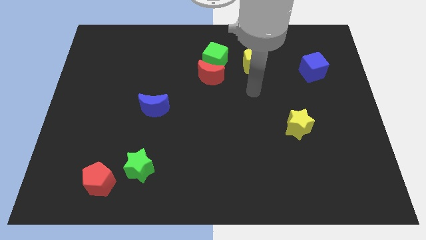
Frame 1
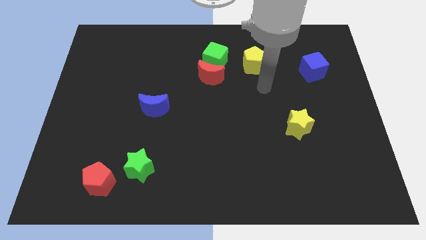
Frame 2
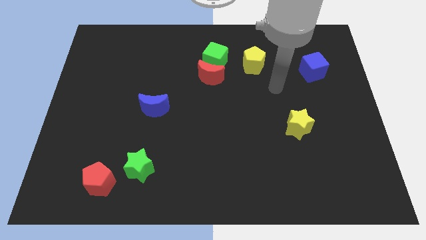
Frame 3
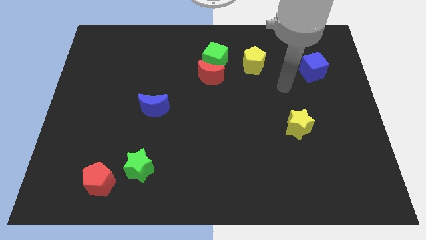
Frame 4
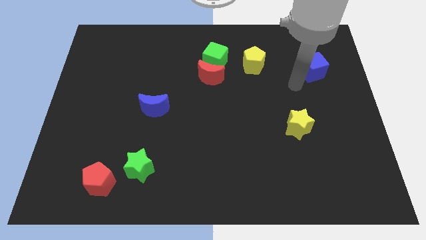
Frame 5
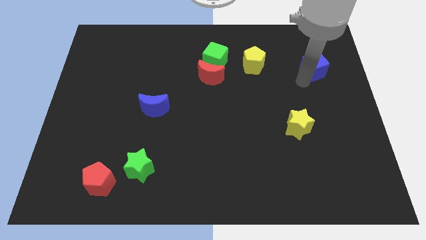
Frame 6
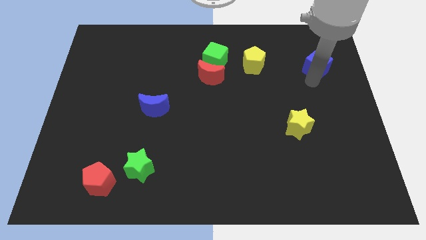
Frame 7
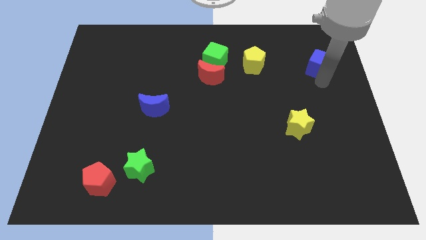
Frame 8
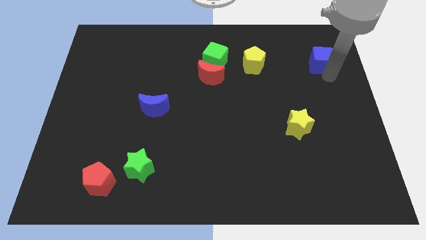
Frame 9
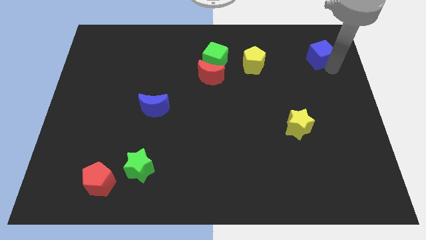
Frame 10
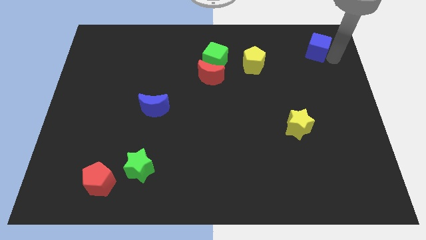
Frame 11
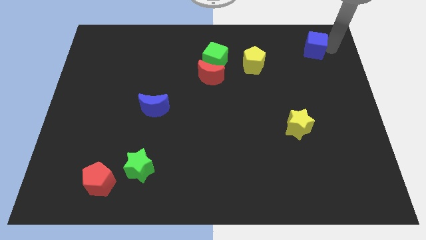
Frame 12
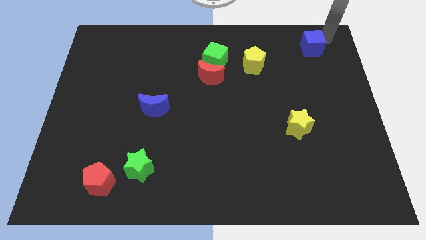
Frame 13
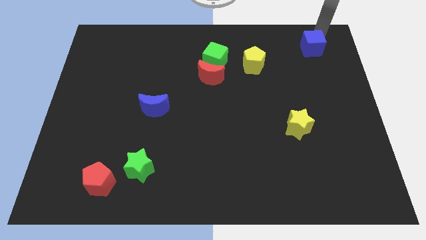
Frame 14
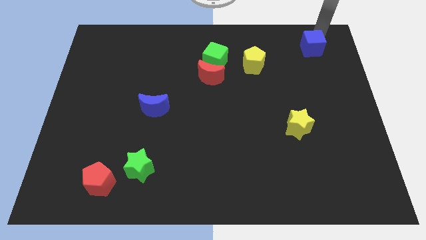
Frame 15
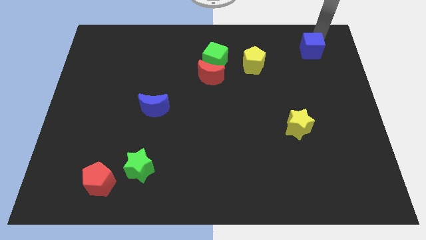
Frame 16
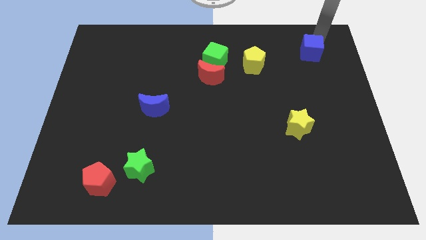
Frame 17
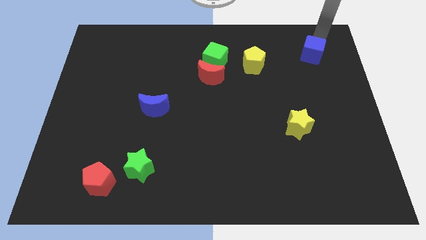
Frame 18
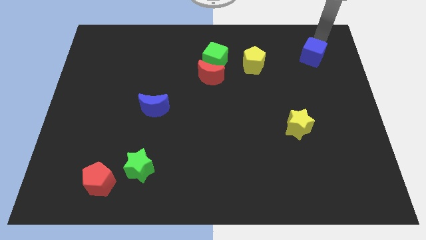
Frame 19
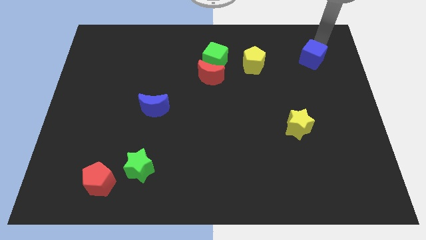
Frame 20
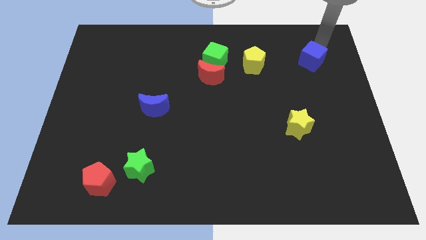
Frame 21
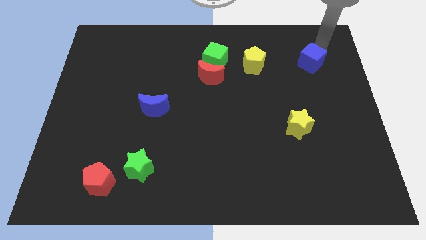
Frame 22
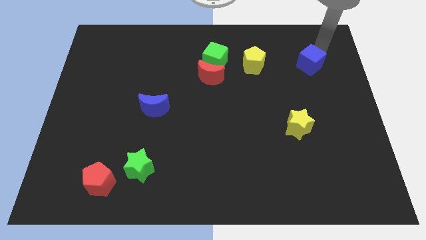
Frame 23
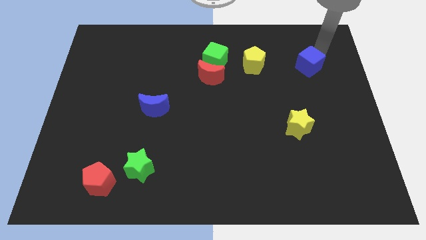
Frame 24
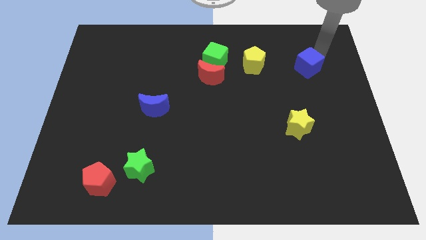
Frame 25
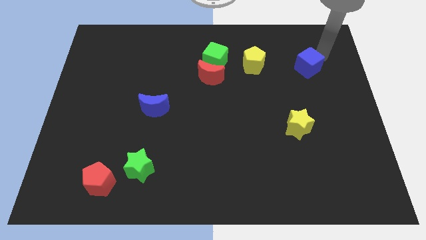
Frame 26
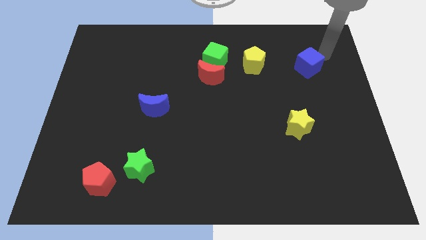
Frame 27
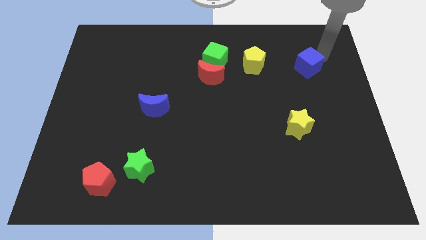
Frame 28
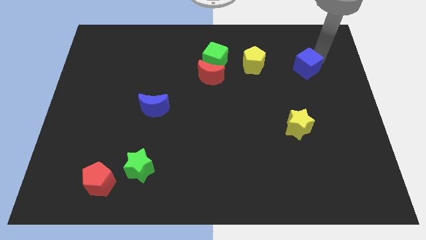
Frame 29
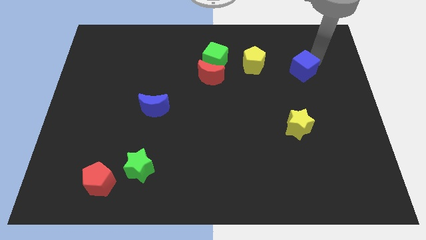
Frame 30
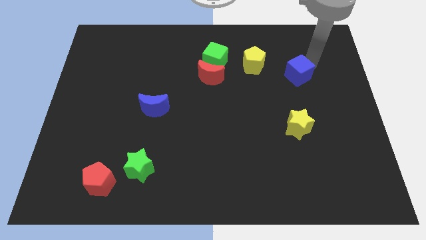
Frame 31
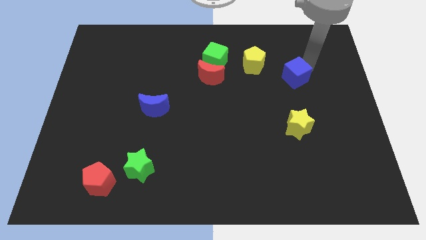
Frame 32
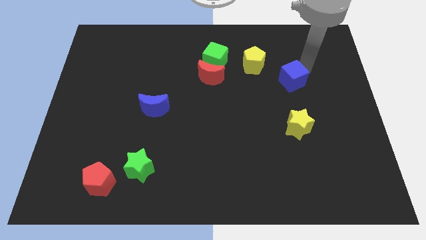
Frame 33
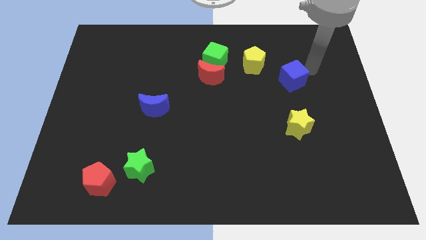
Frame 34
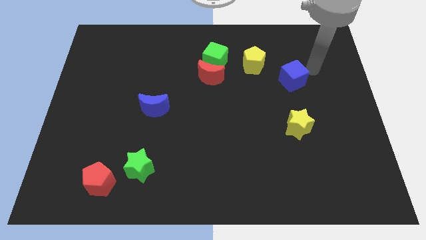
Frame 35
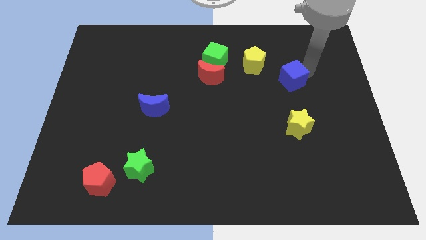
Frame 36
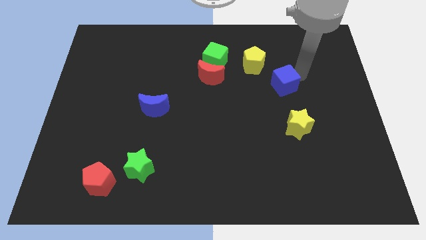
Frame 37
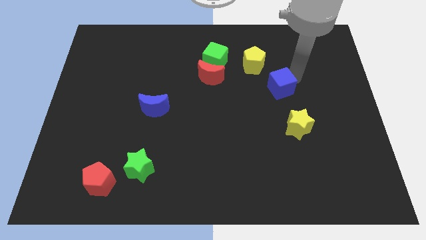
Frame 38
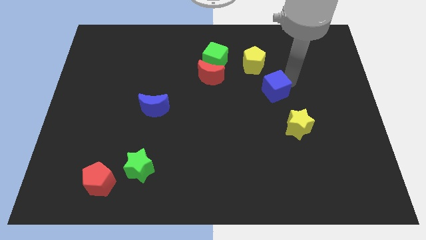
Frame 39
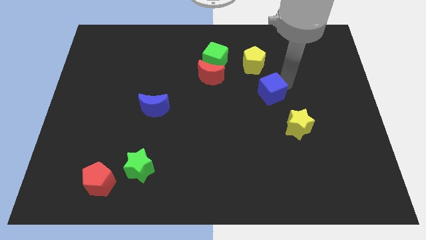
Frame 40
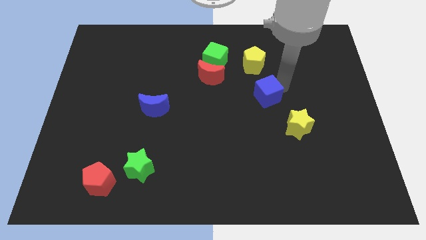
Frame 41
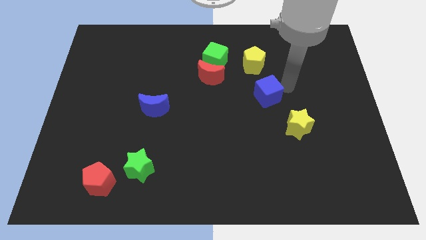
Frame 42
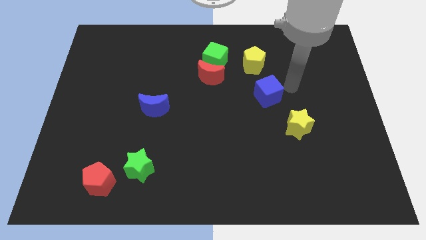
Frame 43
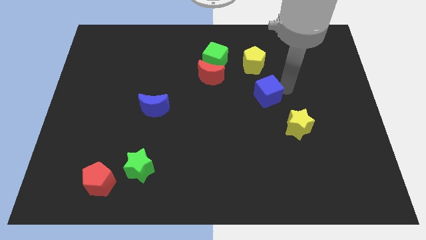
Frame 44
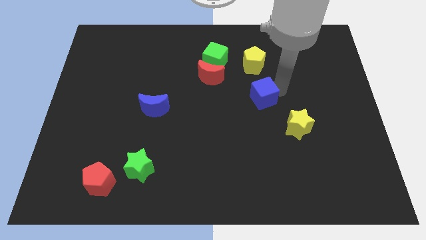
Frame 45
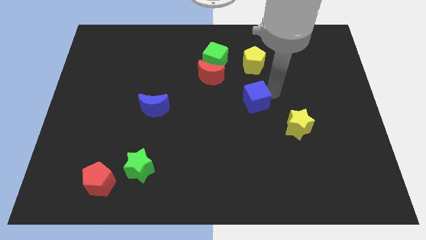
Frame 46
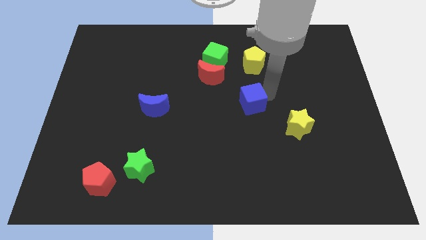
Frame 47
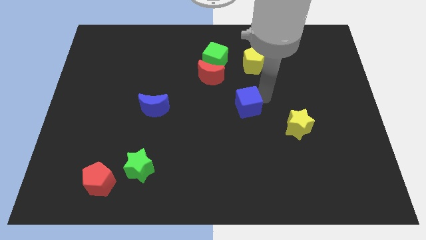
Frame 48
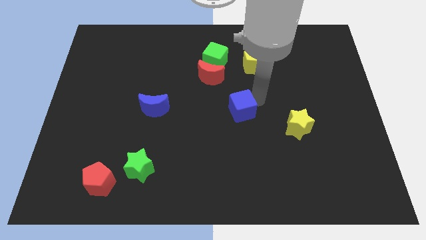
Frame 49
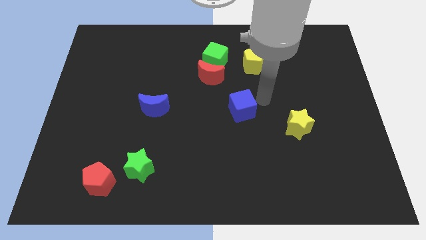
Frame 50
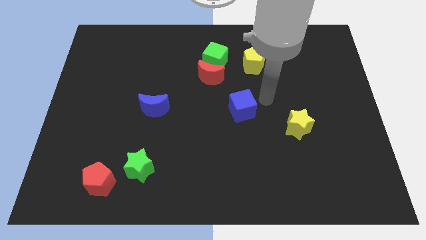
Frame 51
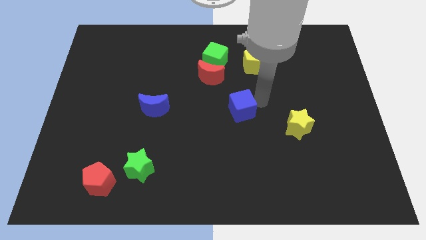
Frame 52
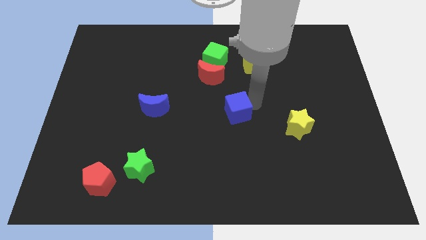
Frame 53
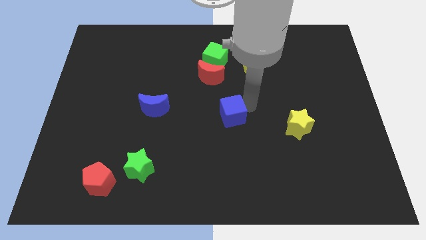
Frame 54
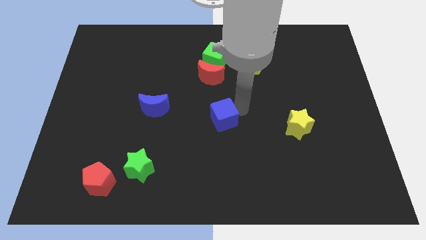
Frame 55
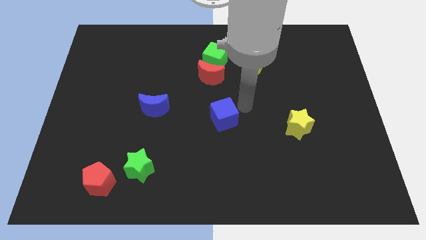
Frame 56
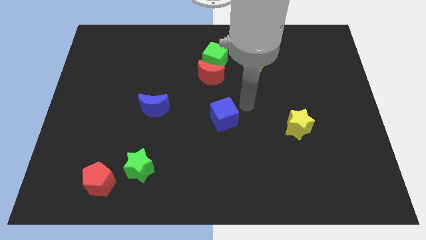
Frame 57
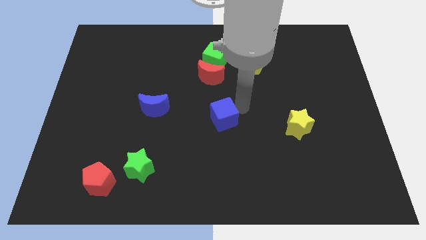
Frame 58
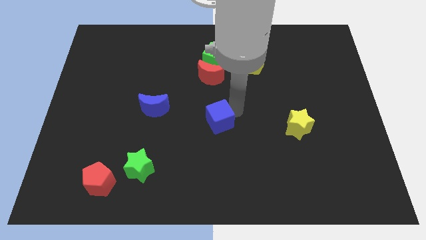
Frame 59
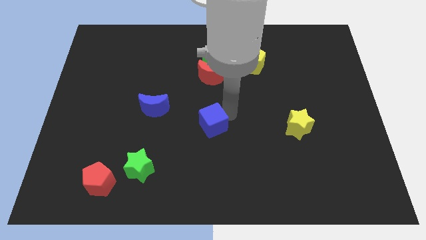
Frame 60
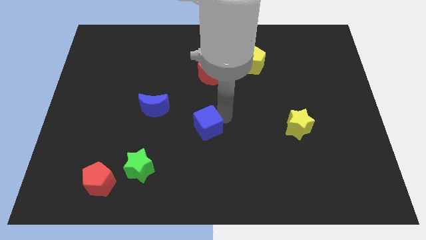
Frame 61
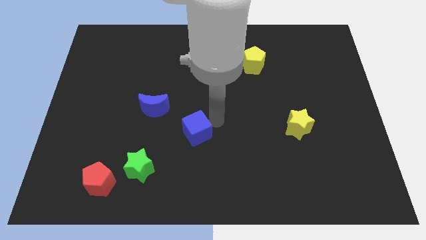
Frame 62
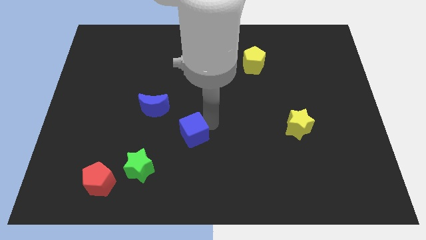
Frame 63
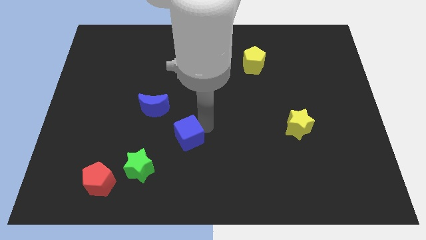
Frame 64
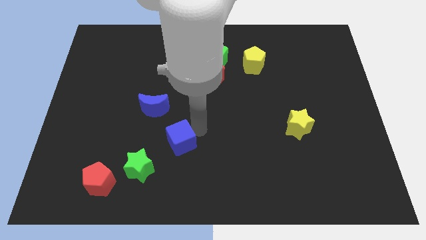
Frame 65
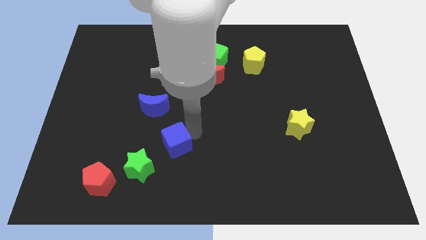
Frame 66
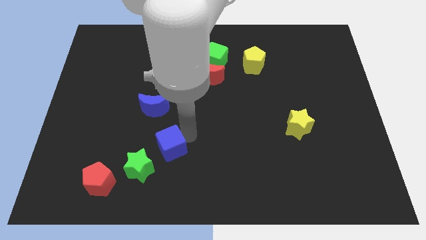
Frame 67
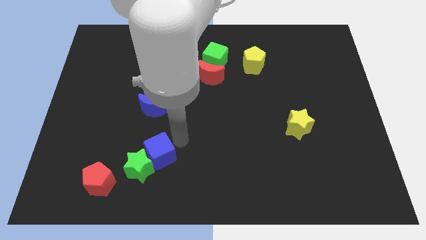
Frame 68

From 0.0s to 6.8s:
slide the blue cube towards the green star

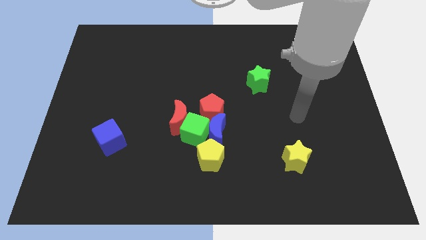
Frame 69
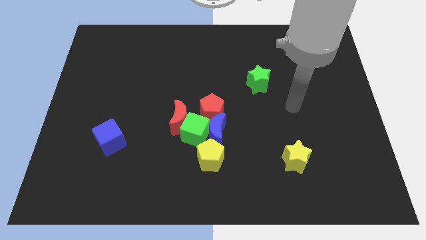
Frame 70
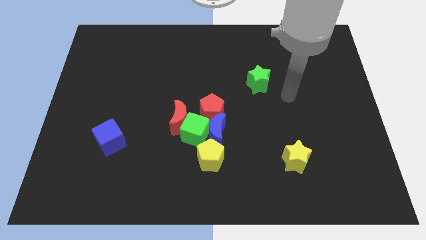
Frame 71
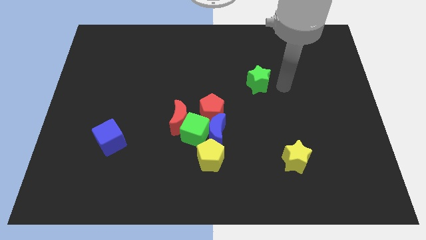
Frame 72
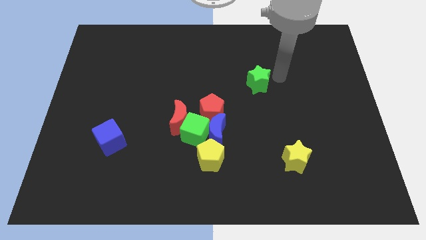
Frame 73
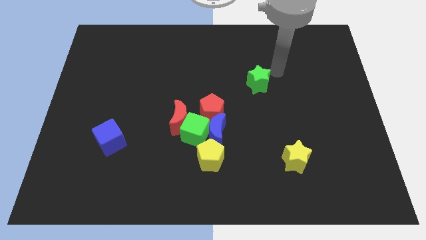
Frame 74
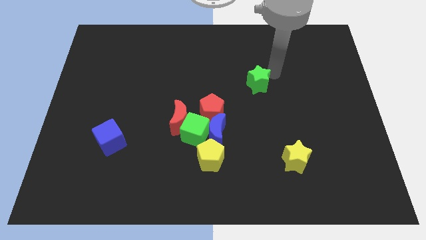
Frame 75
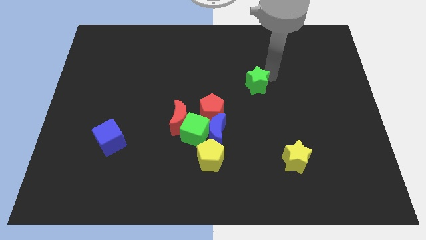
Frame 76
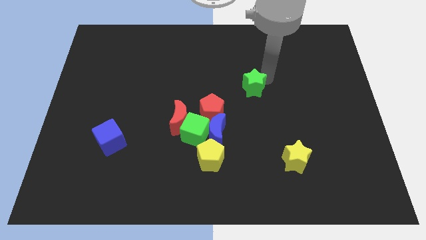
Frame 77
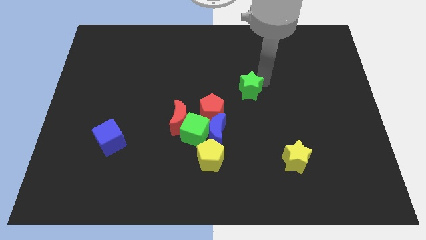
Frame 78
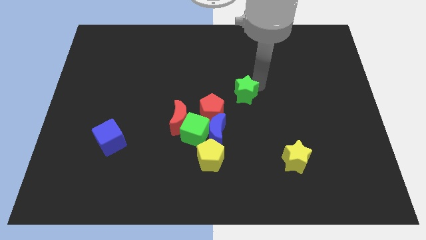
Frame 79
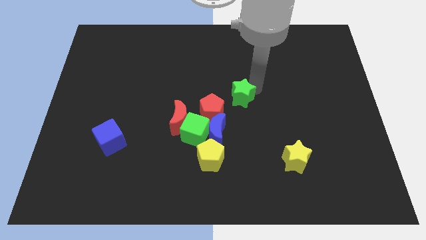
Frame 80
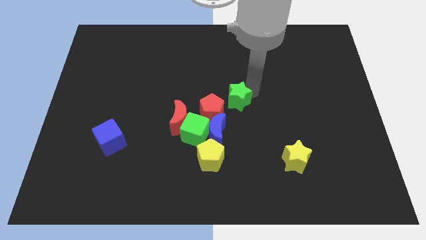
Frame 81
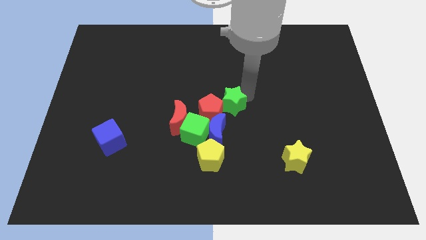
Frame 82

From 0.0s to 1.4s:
slide the green star next to the red pentagon
